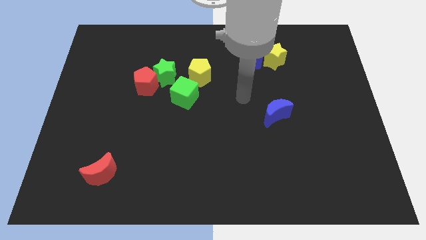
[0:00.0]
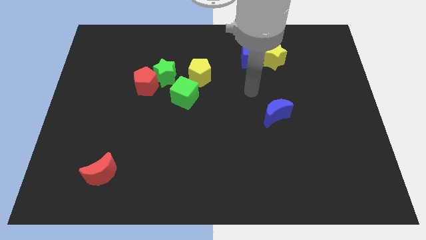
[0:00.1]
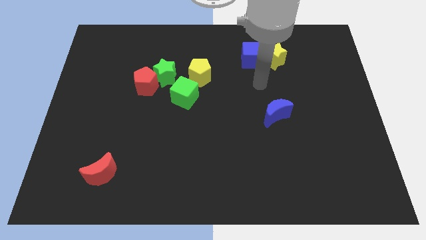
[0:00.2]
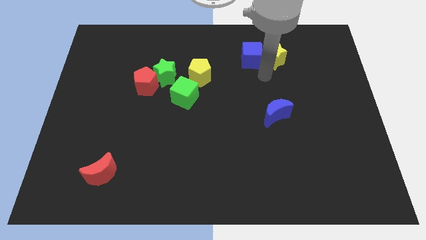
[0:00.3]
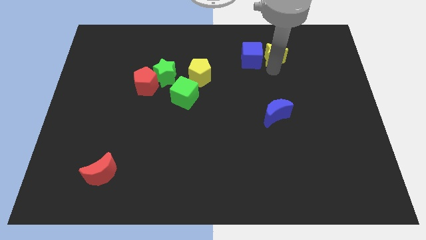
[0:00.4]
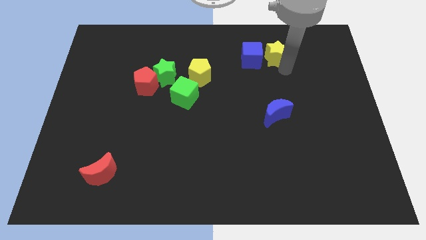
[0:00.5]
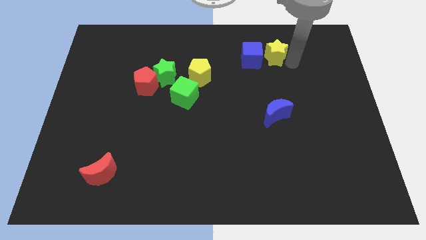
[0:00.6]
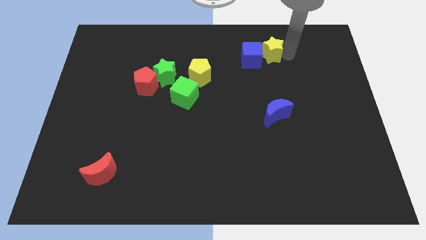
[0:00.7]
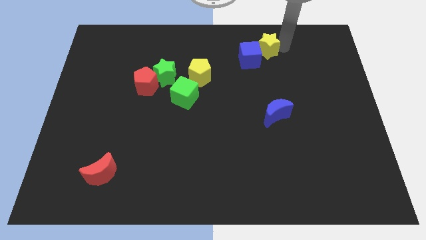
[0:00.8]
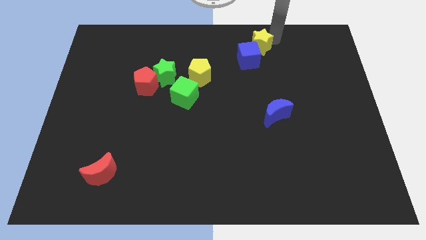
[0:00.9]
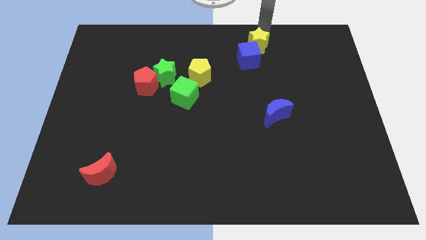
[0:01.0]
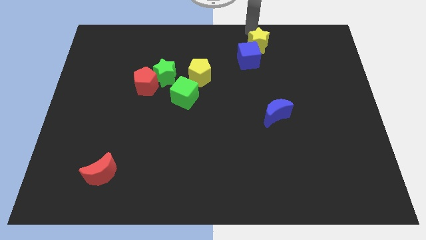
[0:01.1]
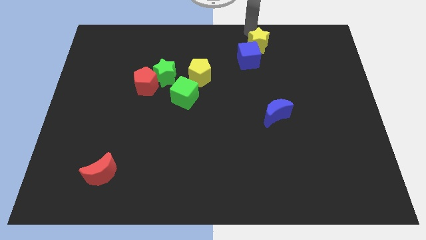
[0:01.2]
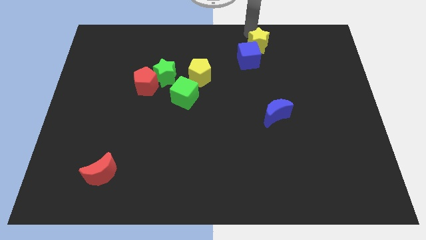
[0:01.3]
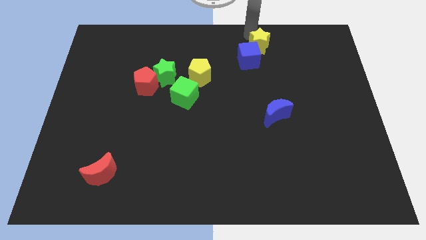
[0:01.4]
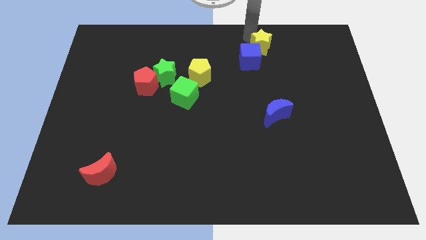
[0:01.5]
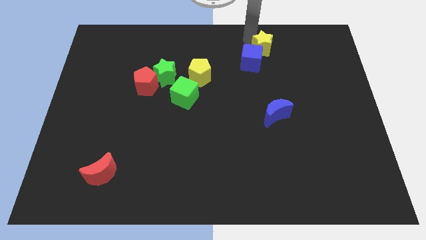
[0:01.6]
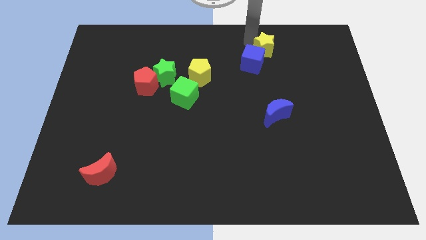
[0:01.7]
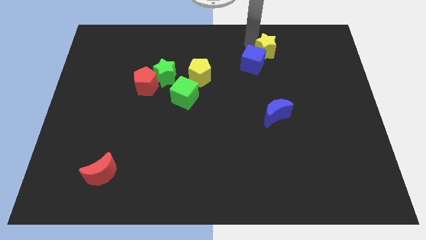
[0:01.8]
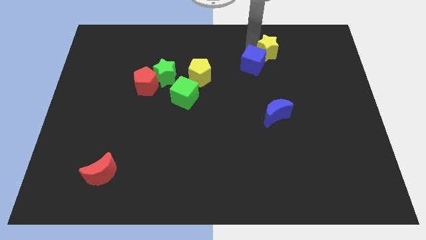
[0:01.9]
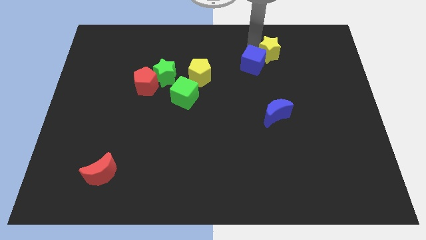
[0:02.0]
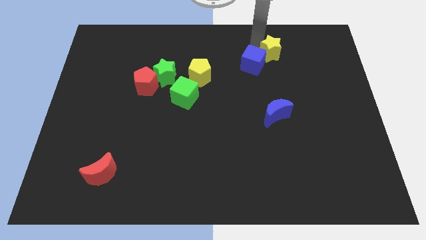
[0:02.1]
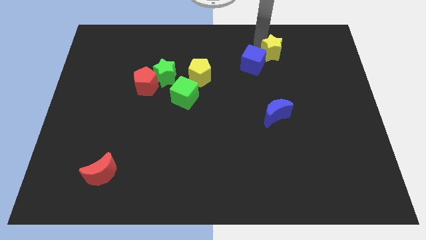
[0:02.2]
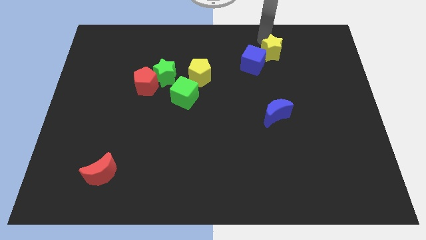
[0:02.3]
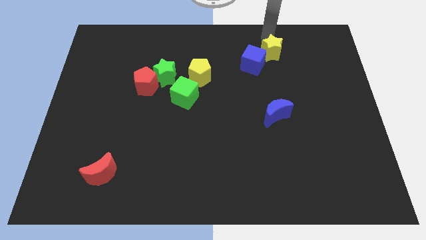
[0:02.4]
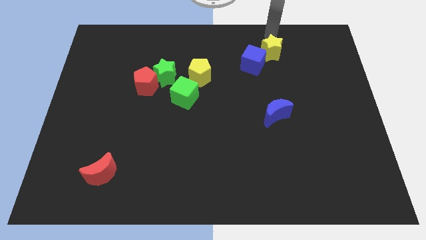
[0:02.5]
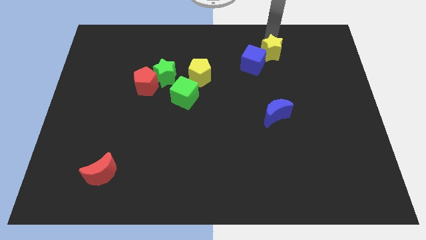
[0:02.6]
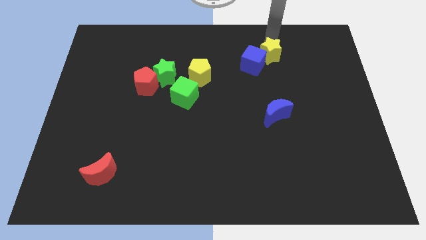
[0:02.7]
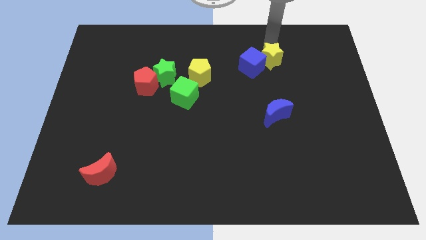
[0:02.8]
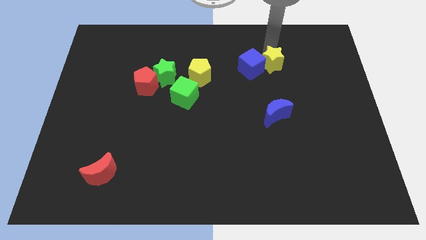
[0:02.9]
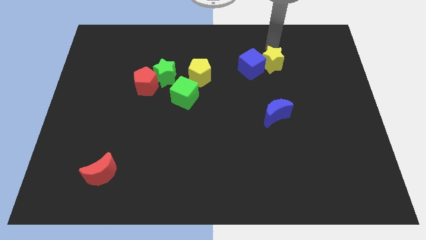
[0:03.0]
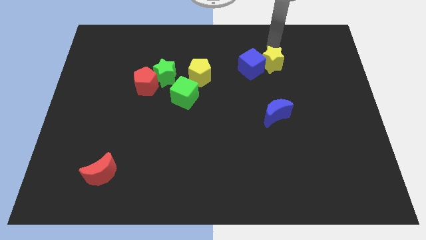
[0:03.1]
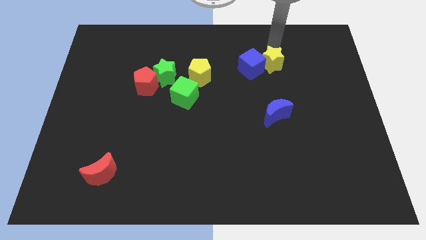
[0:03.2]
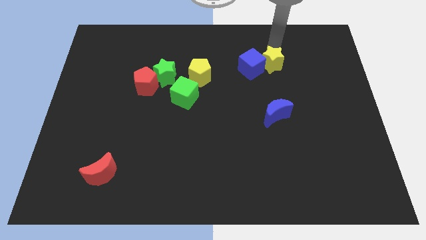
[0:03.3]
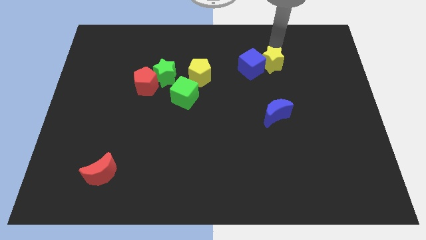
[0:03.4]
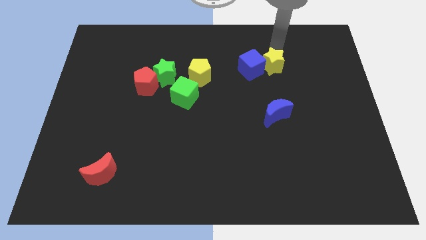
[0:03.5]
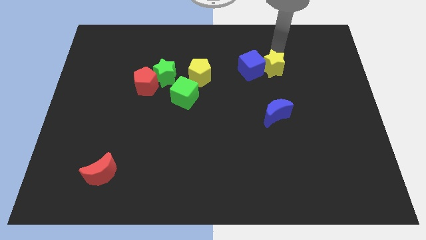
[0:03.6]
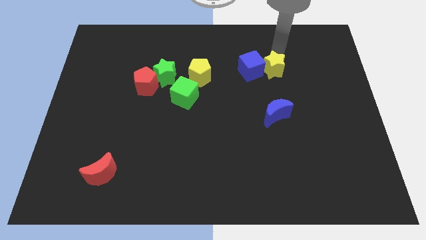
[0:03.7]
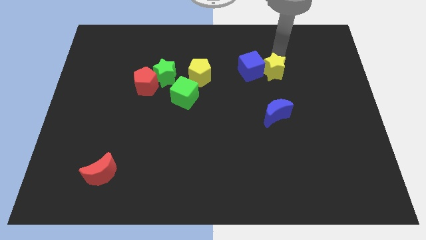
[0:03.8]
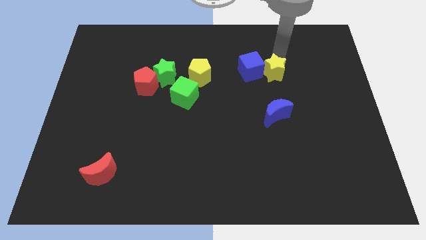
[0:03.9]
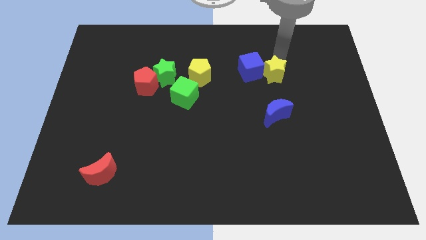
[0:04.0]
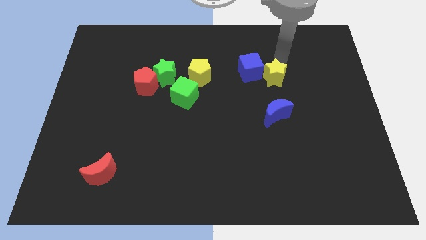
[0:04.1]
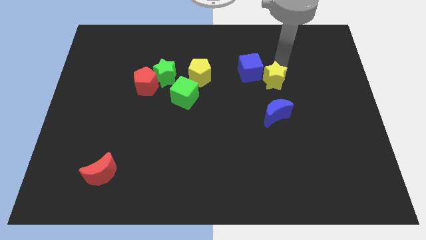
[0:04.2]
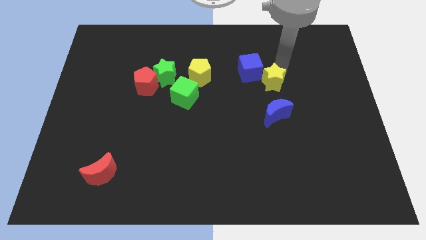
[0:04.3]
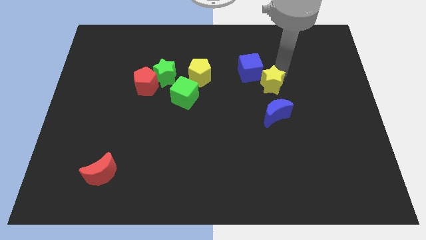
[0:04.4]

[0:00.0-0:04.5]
move the yellow star to the bottom side of the blue cube

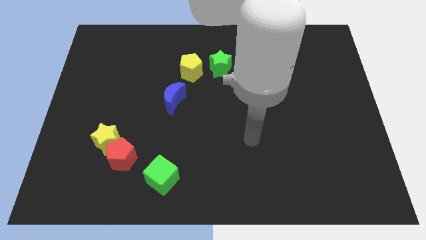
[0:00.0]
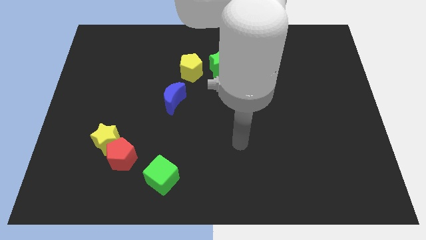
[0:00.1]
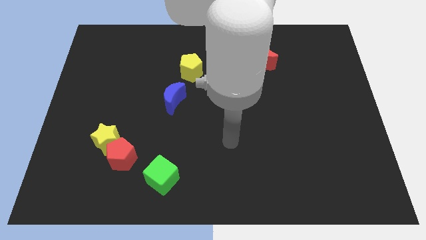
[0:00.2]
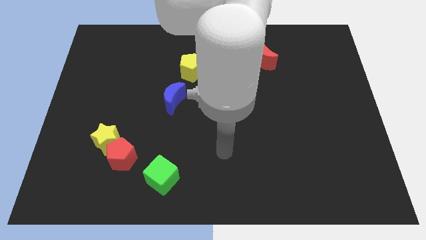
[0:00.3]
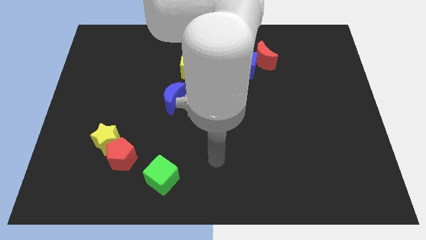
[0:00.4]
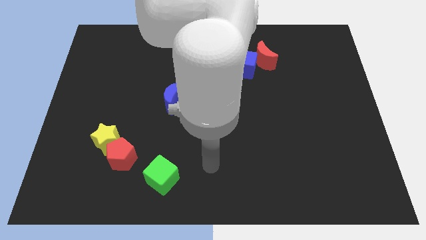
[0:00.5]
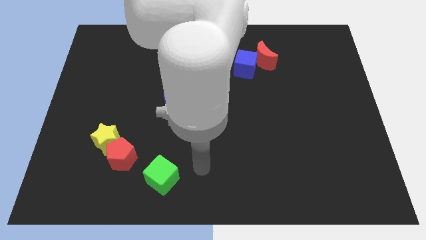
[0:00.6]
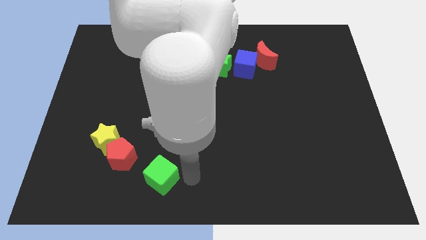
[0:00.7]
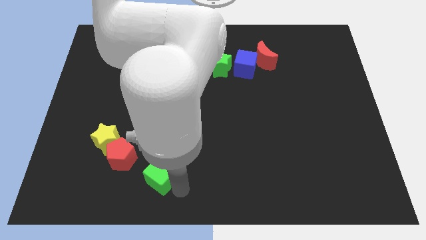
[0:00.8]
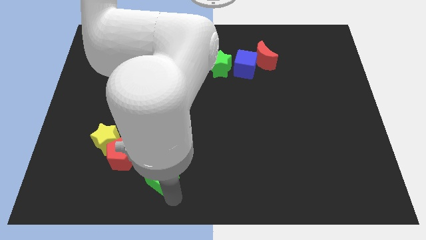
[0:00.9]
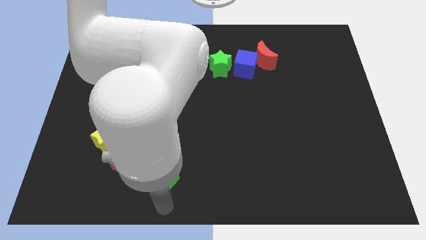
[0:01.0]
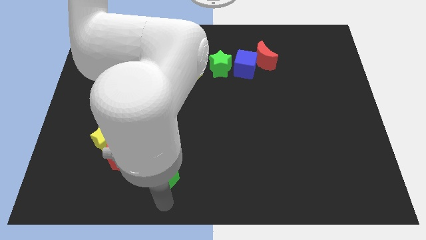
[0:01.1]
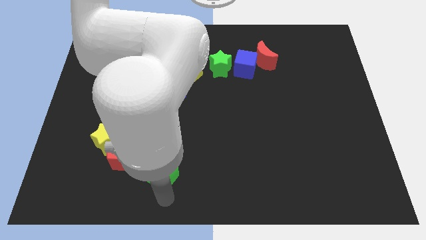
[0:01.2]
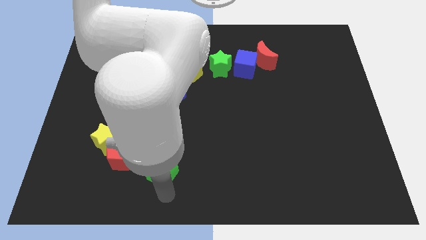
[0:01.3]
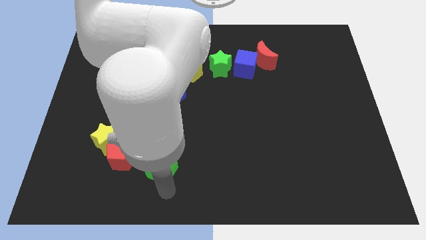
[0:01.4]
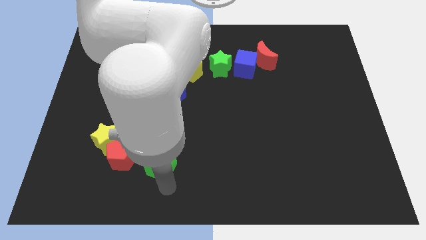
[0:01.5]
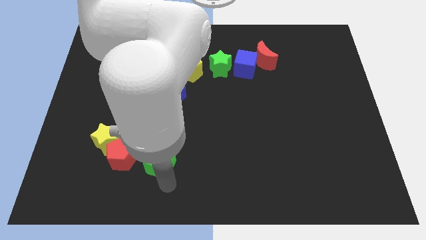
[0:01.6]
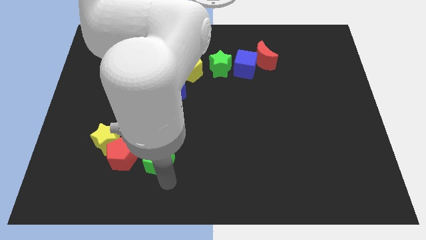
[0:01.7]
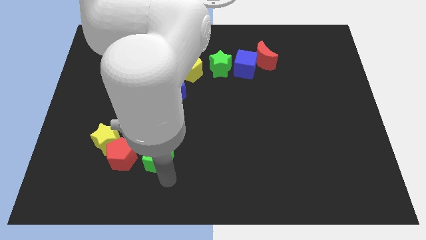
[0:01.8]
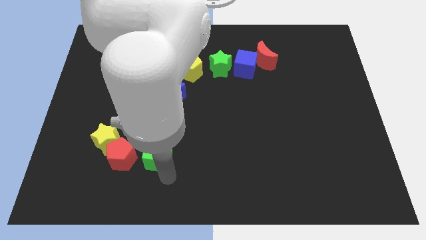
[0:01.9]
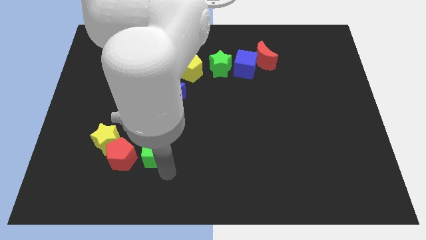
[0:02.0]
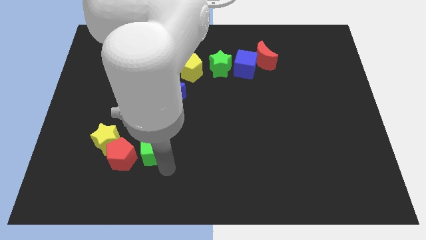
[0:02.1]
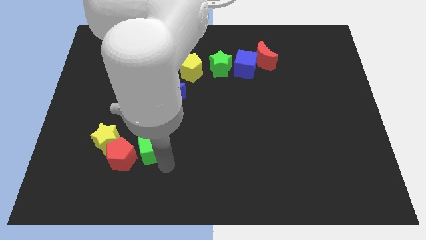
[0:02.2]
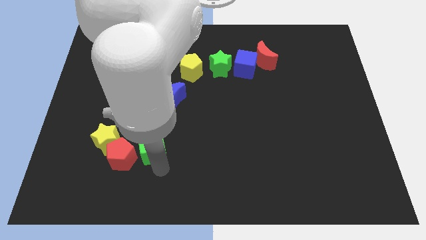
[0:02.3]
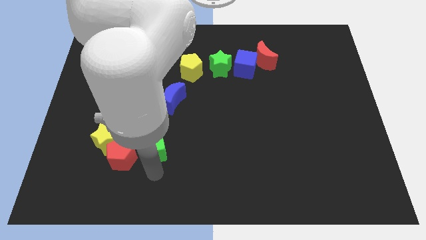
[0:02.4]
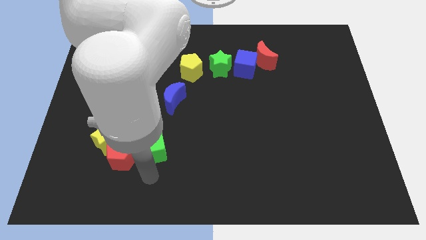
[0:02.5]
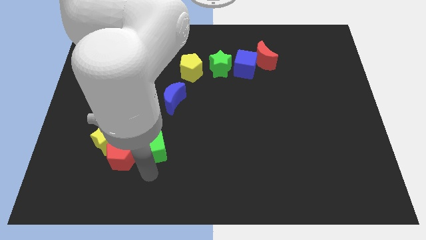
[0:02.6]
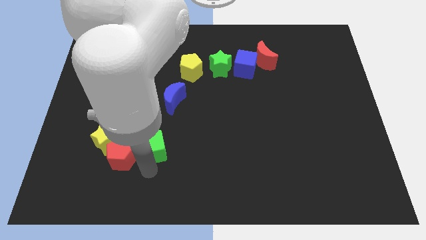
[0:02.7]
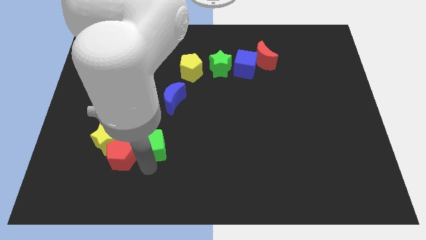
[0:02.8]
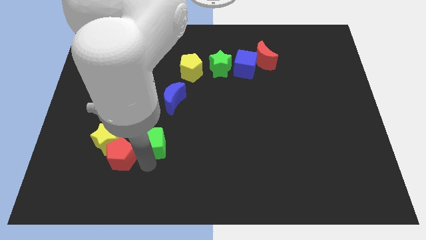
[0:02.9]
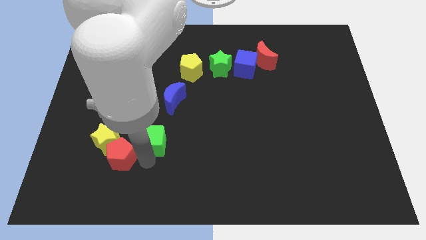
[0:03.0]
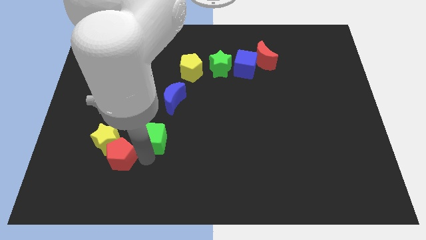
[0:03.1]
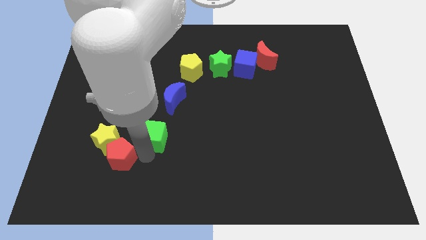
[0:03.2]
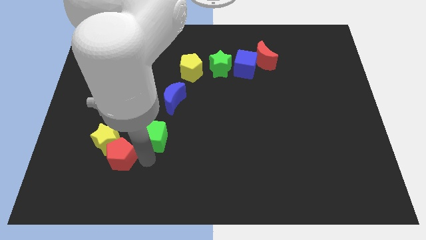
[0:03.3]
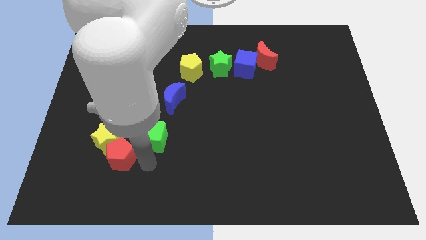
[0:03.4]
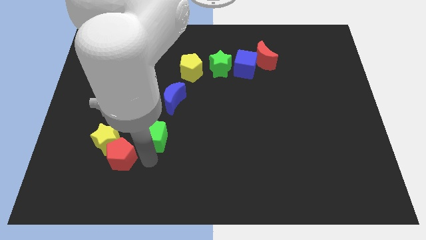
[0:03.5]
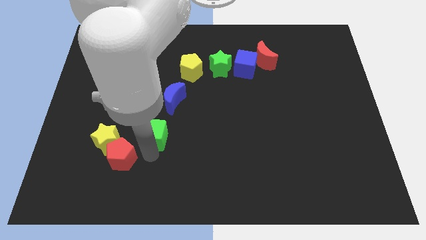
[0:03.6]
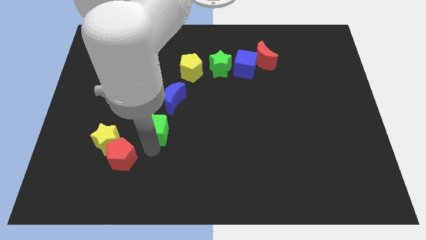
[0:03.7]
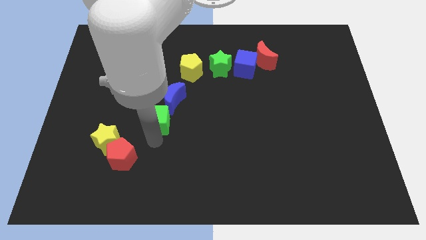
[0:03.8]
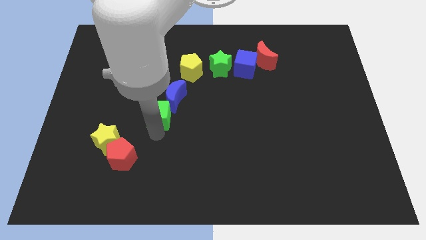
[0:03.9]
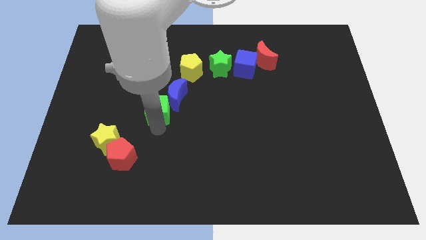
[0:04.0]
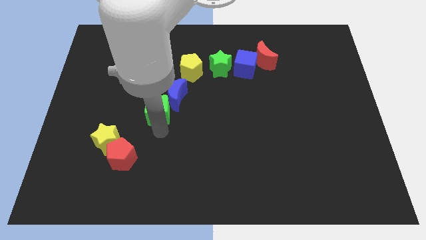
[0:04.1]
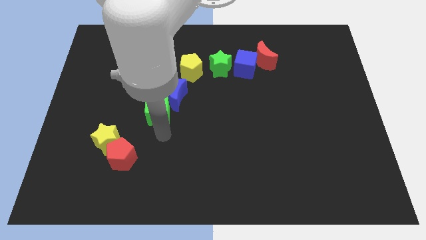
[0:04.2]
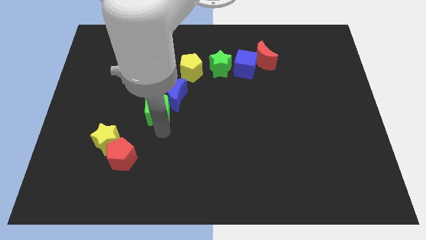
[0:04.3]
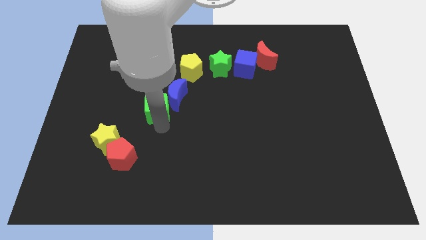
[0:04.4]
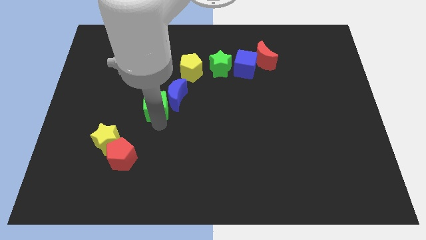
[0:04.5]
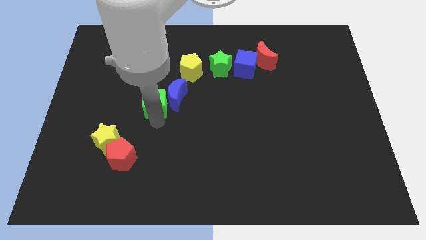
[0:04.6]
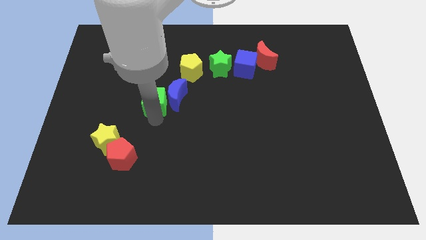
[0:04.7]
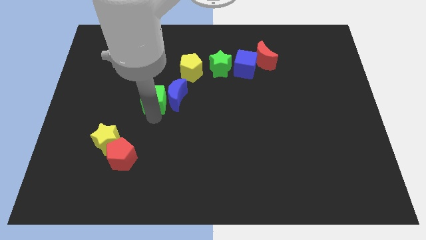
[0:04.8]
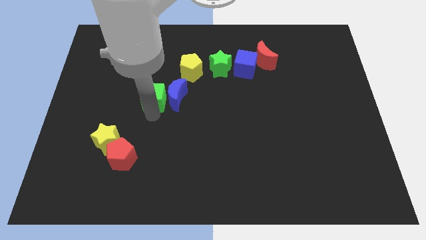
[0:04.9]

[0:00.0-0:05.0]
put the green cube diagonally down and to the left of the yellow pentagon
